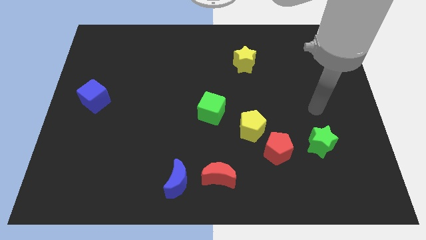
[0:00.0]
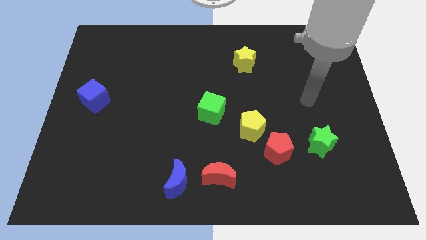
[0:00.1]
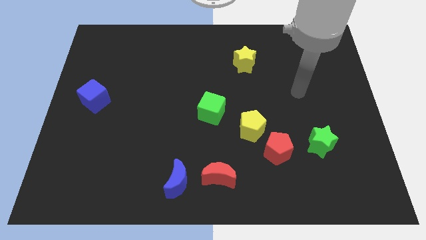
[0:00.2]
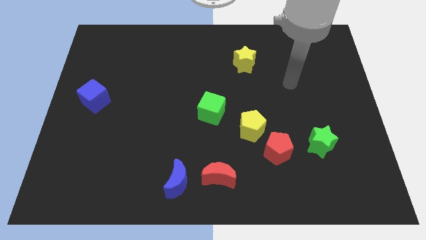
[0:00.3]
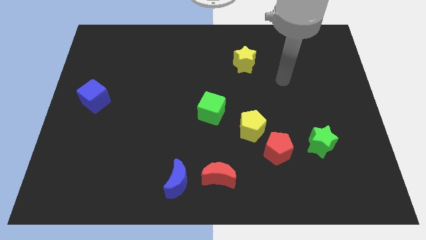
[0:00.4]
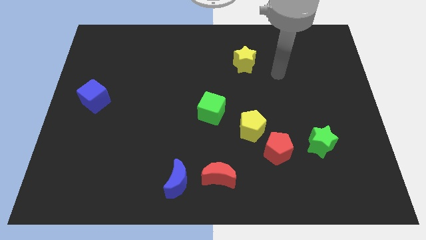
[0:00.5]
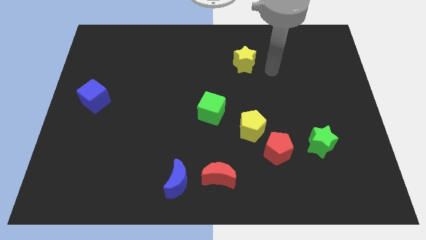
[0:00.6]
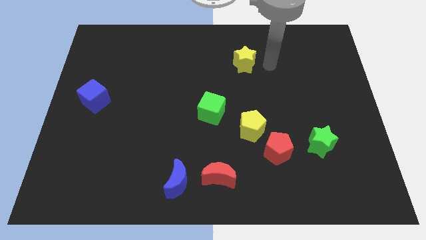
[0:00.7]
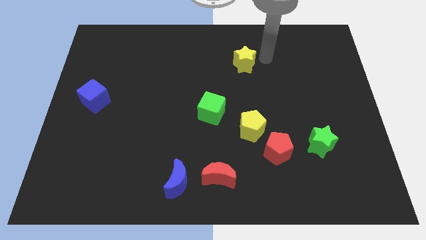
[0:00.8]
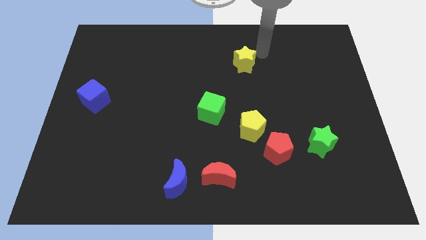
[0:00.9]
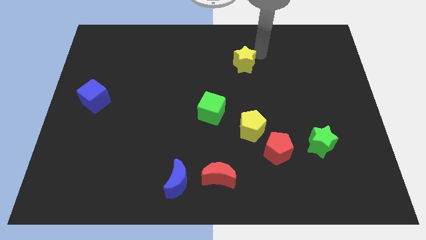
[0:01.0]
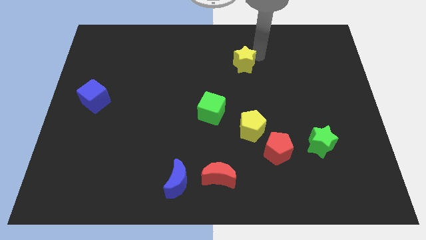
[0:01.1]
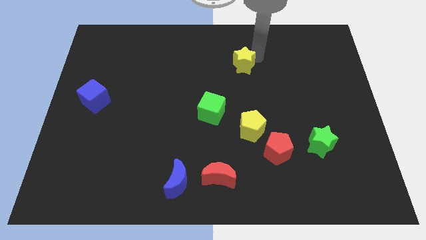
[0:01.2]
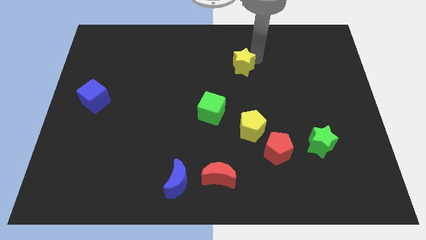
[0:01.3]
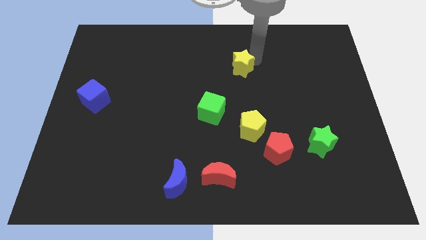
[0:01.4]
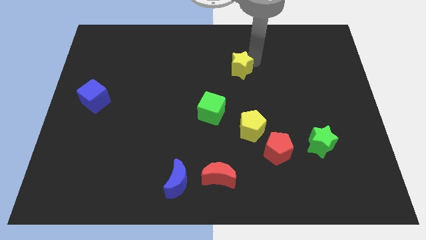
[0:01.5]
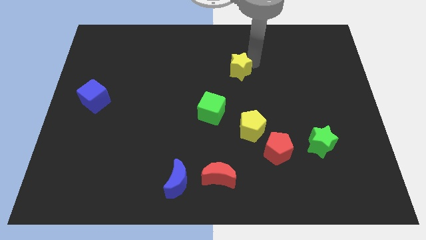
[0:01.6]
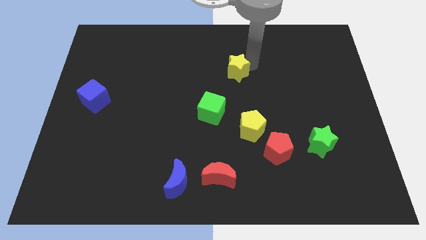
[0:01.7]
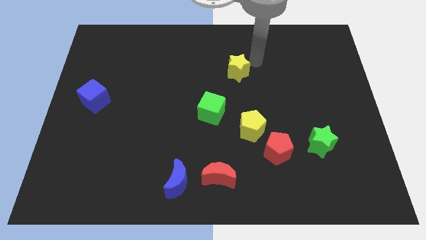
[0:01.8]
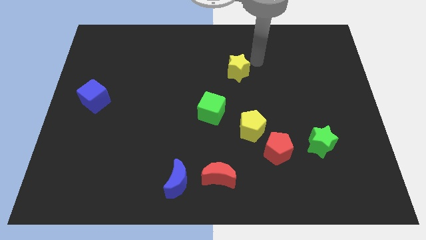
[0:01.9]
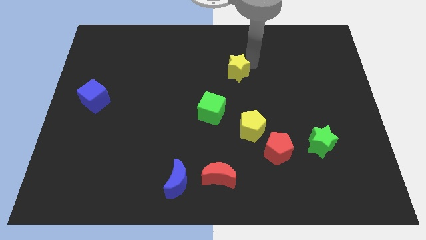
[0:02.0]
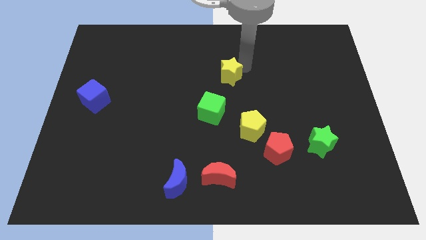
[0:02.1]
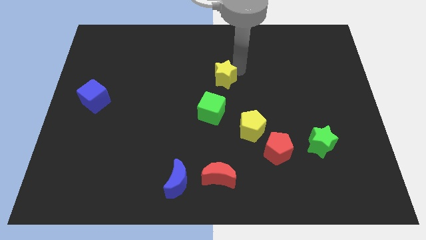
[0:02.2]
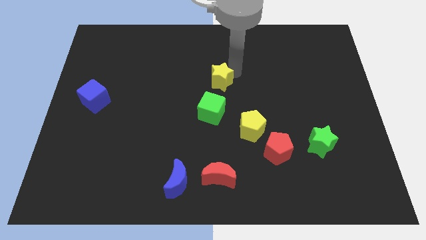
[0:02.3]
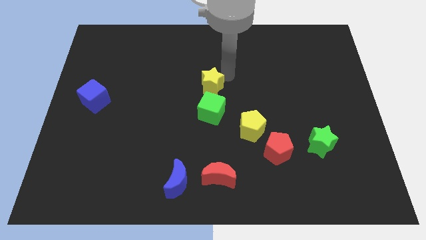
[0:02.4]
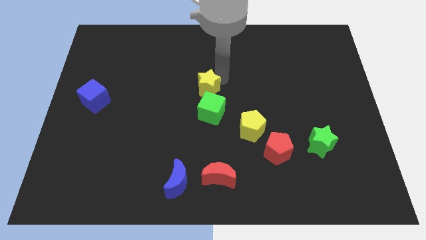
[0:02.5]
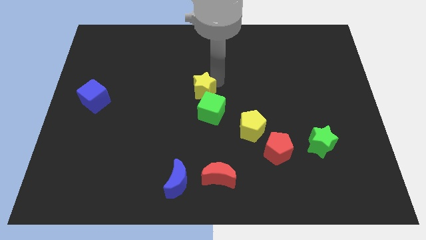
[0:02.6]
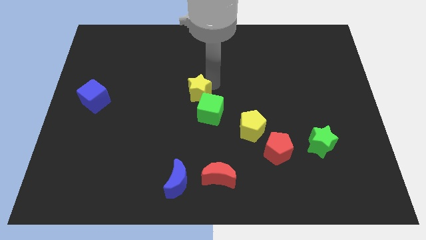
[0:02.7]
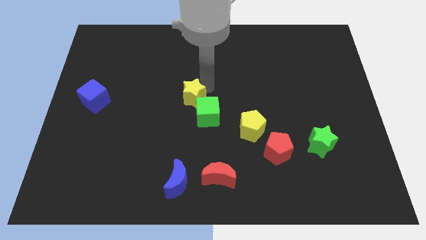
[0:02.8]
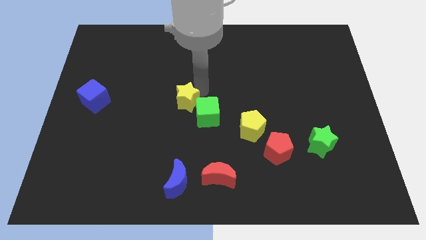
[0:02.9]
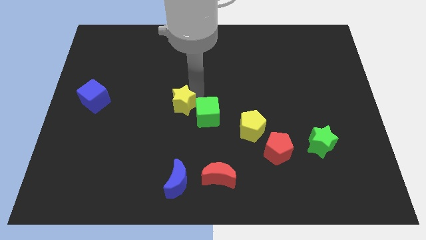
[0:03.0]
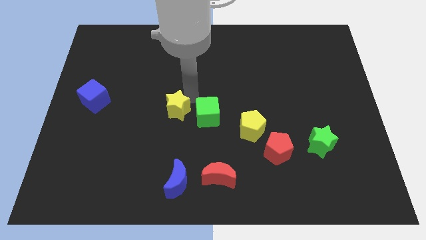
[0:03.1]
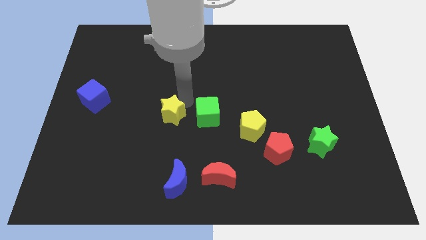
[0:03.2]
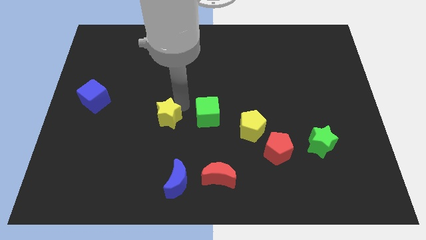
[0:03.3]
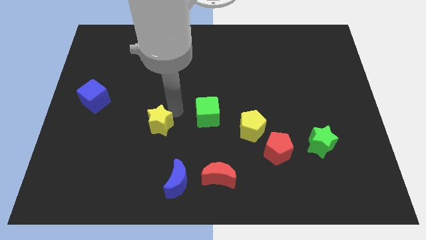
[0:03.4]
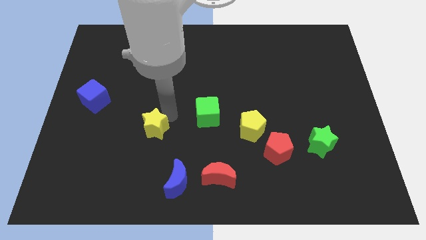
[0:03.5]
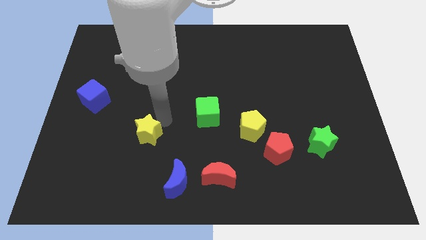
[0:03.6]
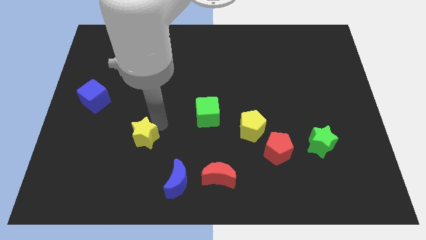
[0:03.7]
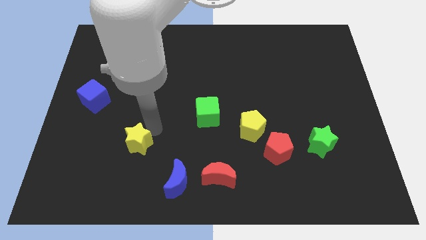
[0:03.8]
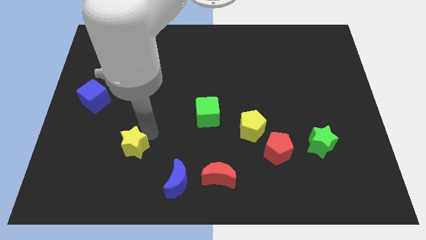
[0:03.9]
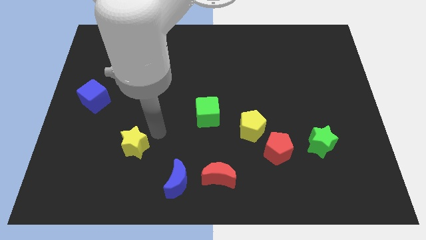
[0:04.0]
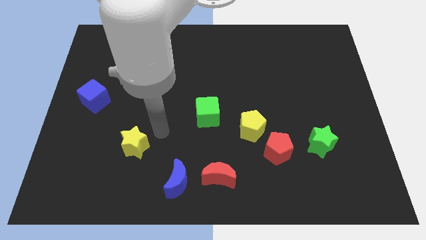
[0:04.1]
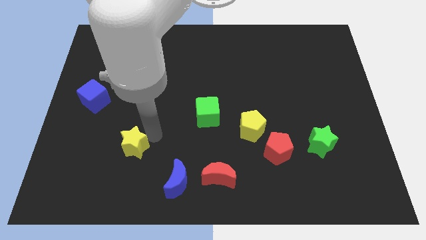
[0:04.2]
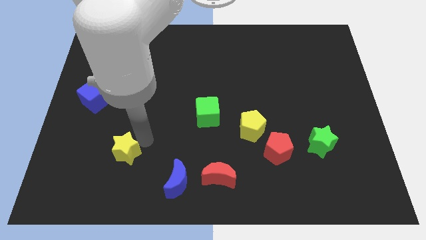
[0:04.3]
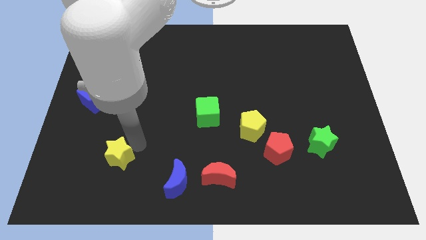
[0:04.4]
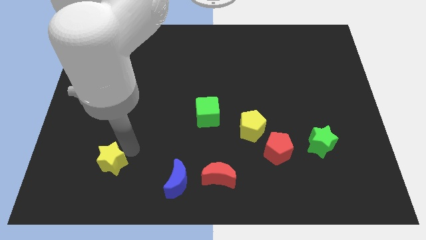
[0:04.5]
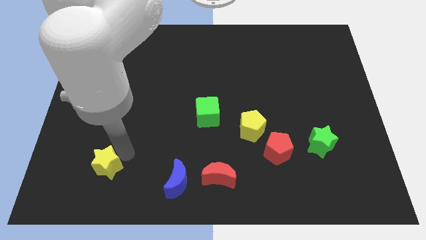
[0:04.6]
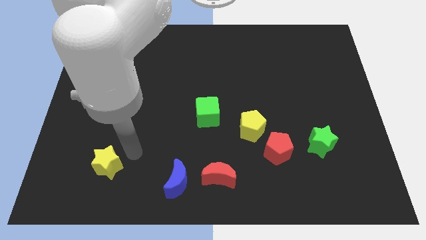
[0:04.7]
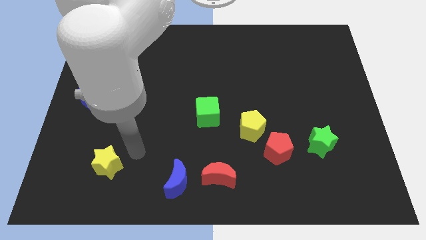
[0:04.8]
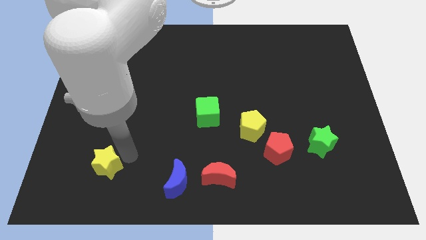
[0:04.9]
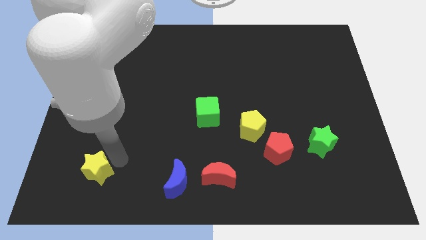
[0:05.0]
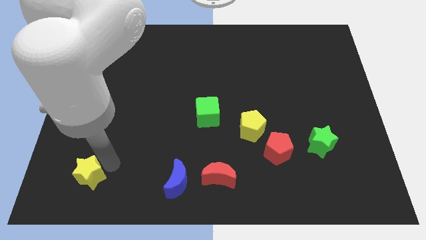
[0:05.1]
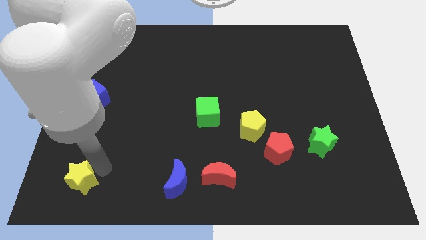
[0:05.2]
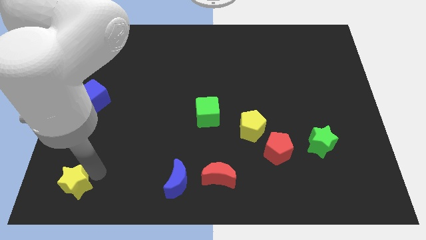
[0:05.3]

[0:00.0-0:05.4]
push the yellow star to the bottom left corner

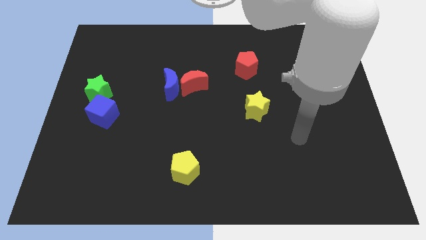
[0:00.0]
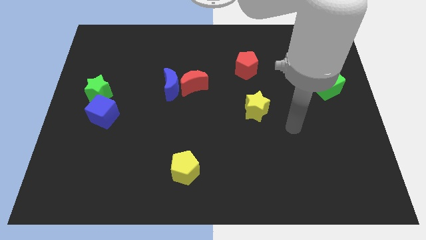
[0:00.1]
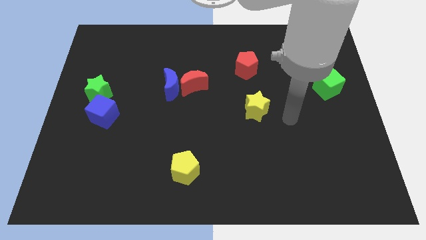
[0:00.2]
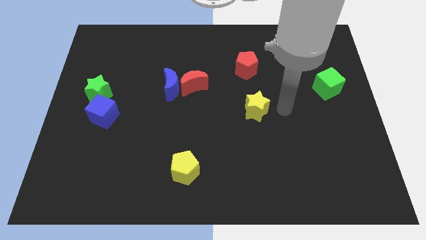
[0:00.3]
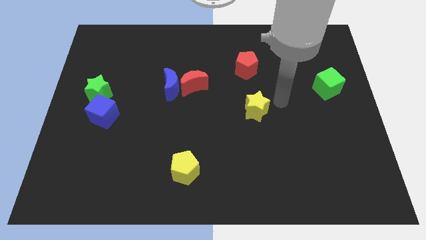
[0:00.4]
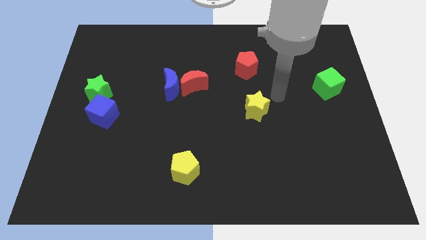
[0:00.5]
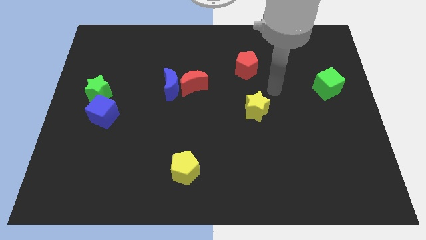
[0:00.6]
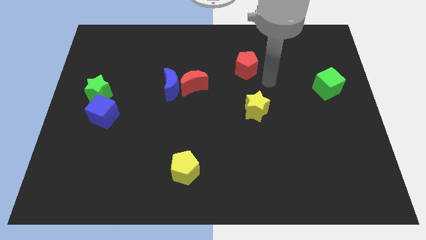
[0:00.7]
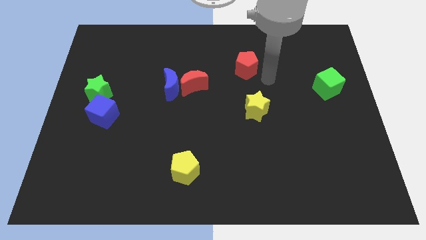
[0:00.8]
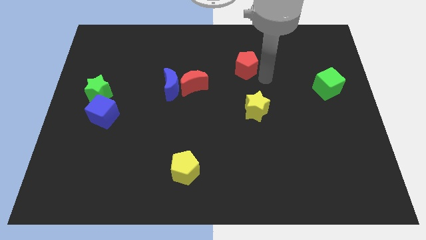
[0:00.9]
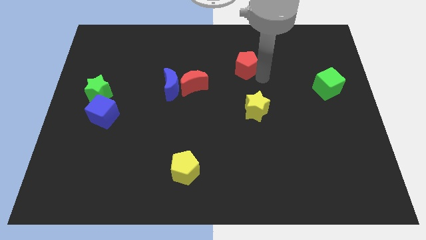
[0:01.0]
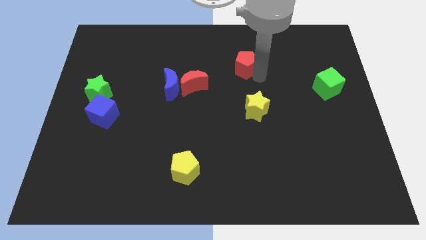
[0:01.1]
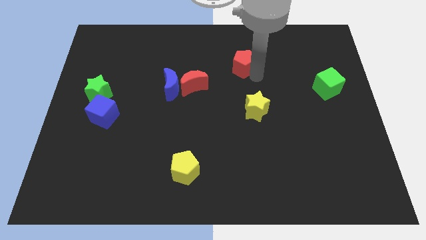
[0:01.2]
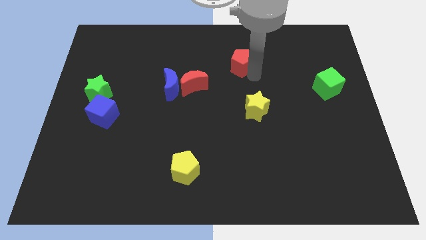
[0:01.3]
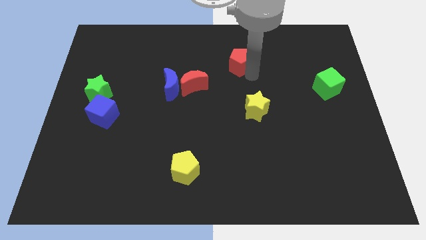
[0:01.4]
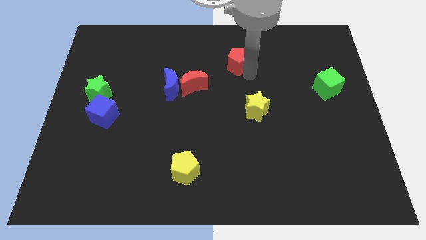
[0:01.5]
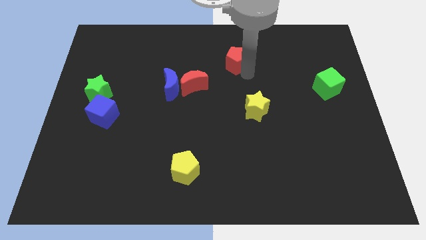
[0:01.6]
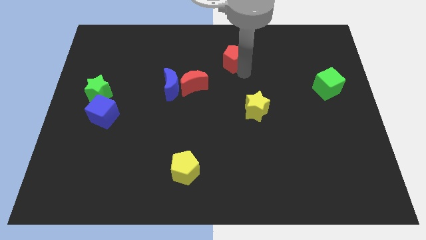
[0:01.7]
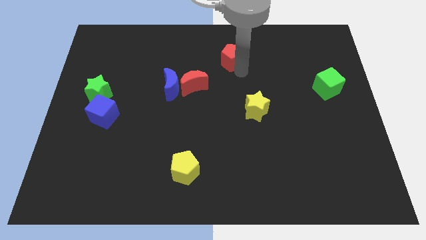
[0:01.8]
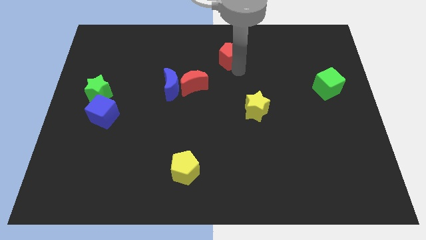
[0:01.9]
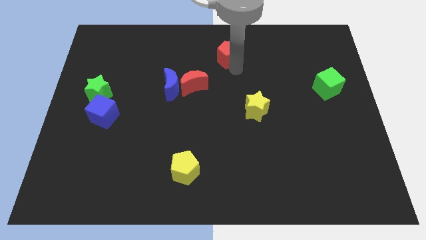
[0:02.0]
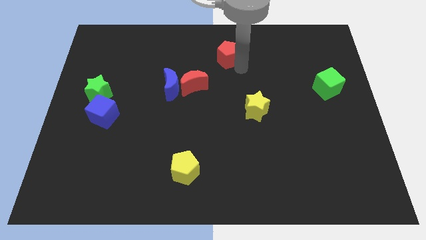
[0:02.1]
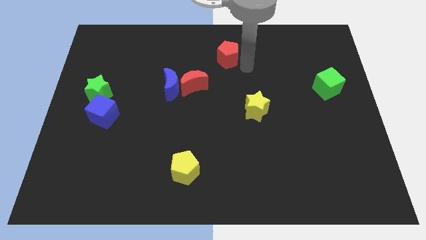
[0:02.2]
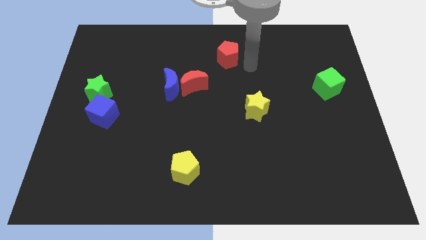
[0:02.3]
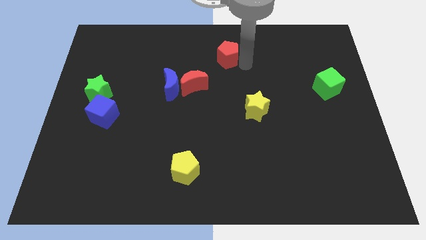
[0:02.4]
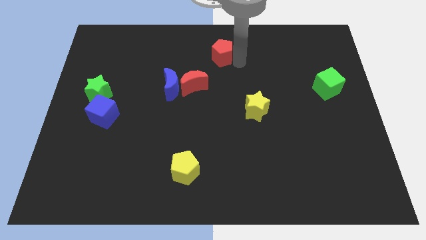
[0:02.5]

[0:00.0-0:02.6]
move the red pentagon to the top side
